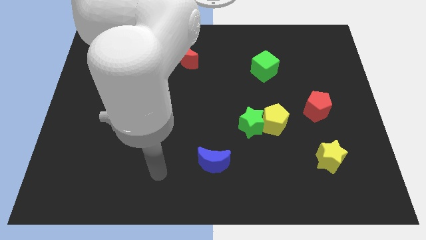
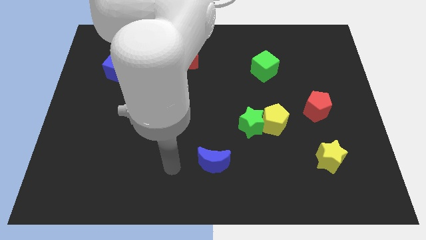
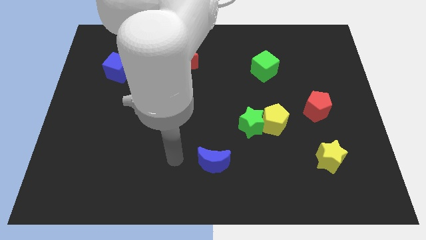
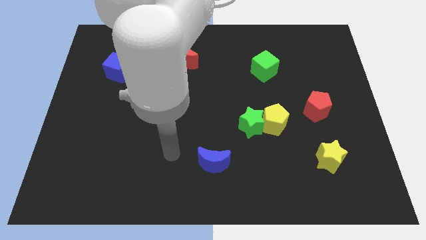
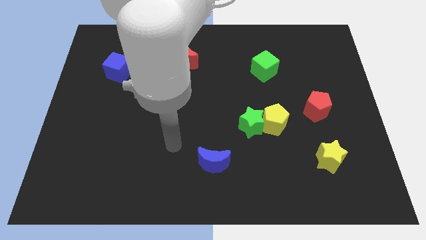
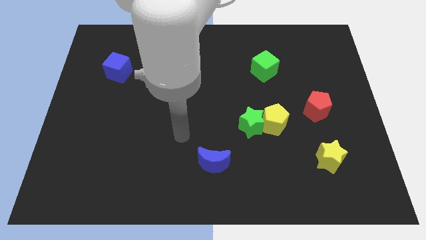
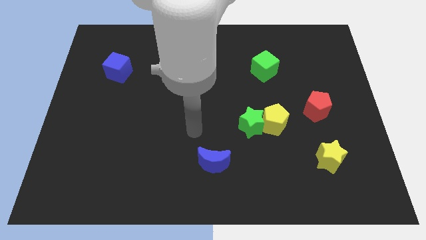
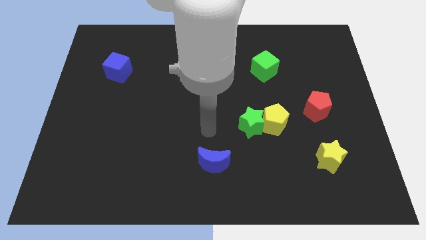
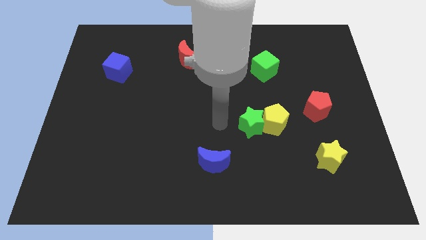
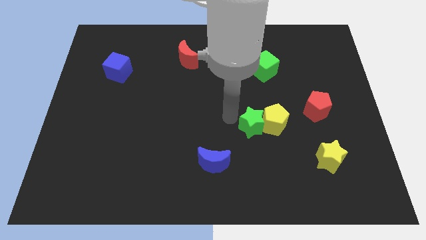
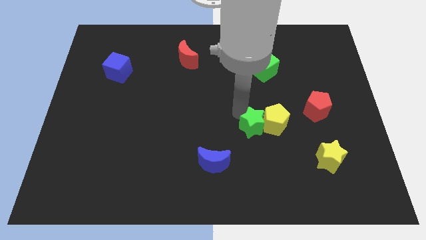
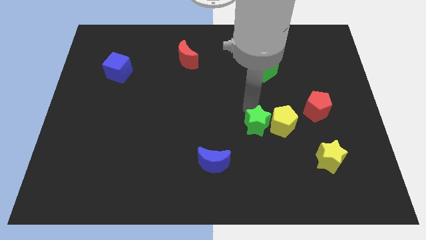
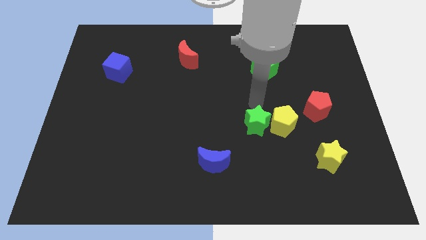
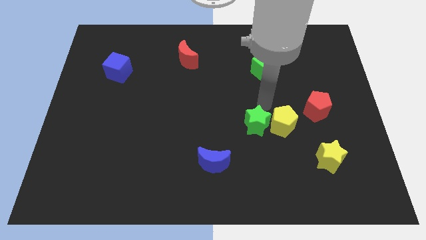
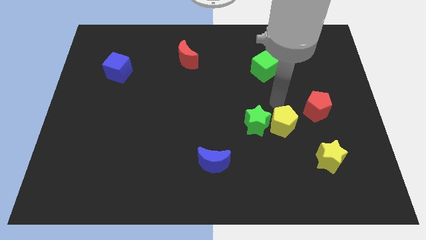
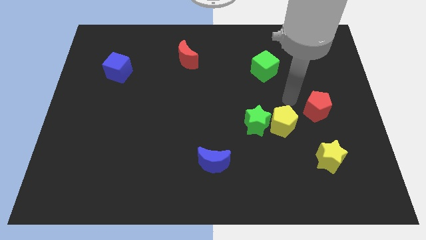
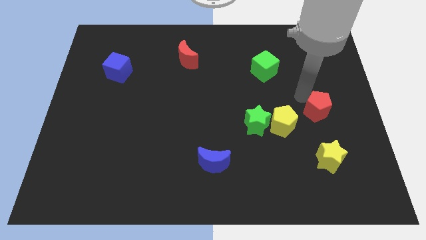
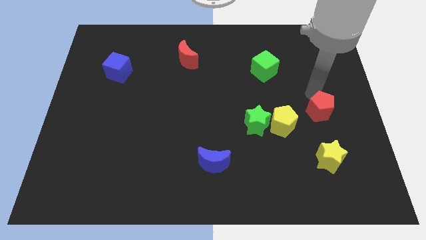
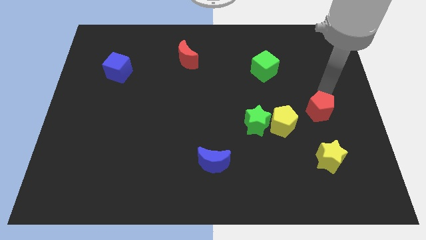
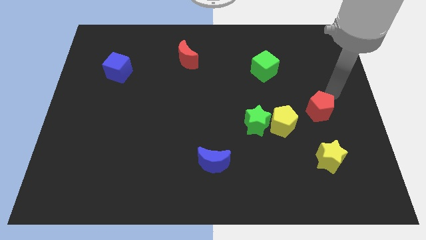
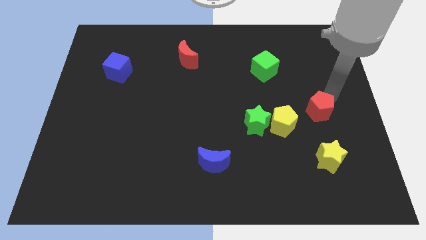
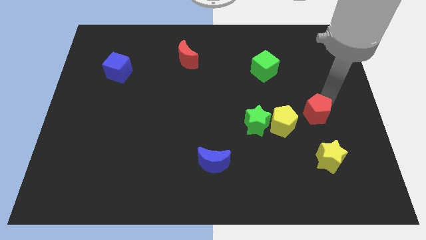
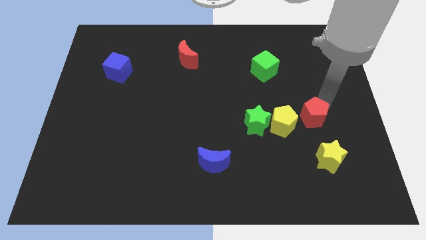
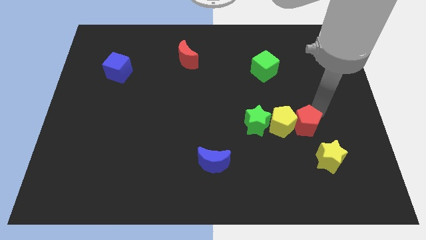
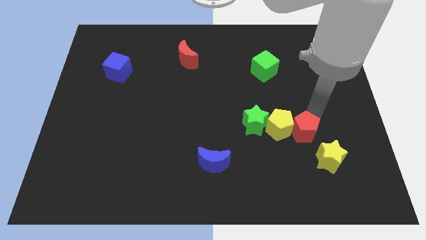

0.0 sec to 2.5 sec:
move the red pentagon a little bit downwards and to the left diagonally

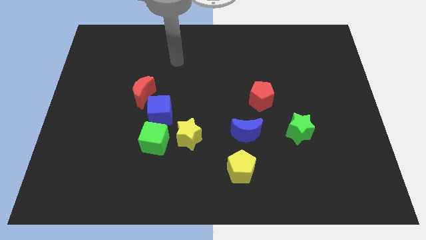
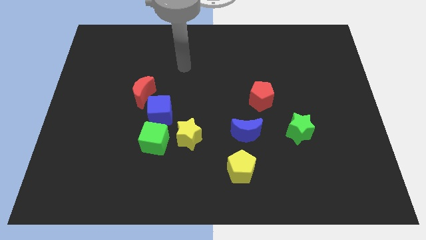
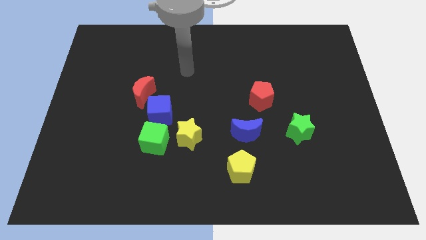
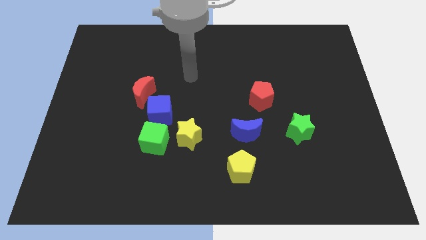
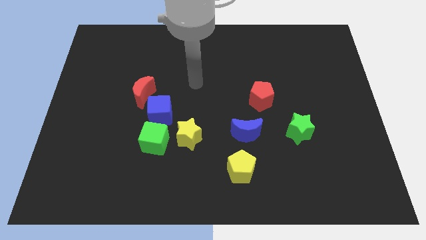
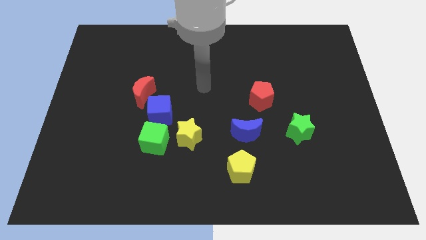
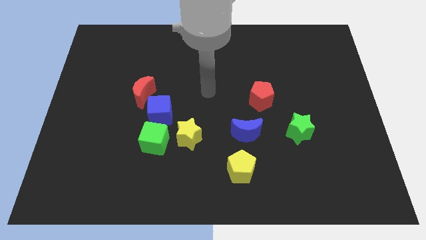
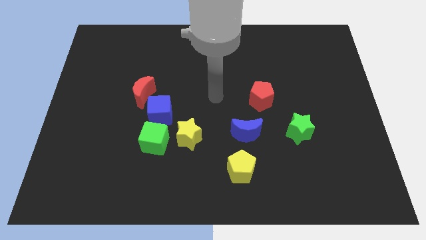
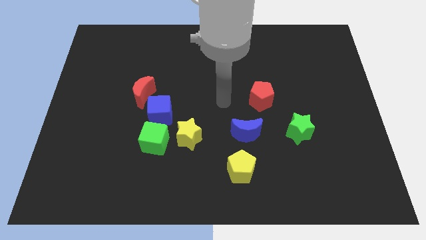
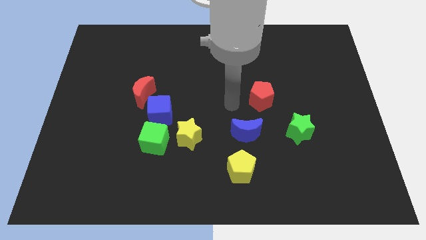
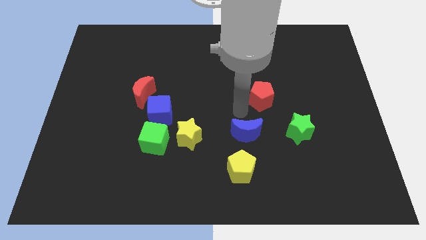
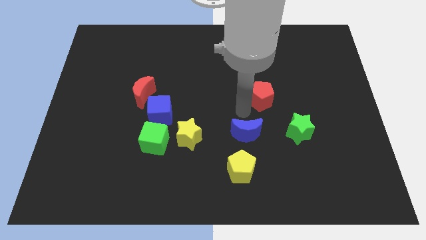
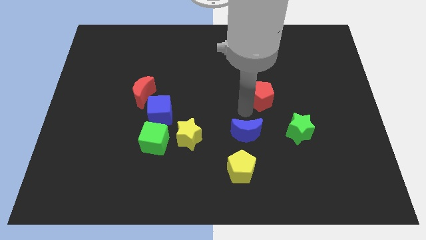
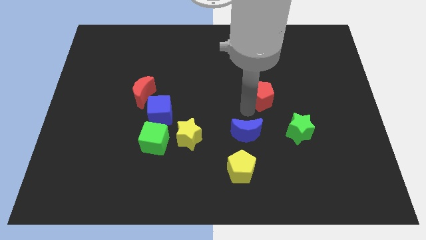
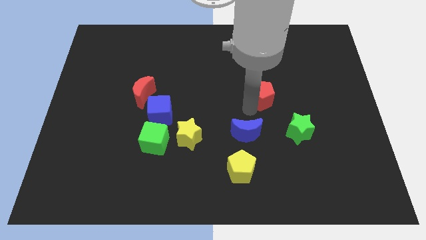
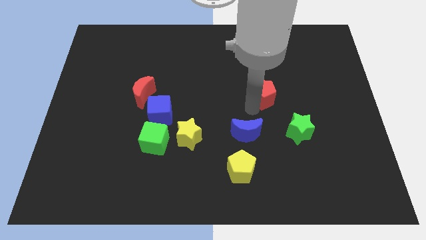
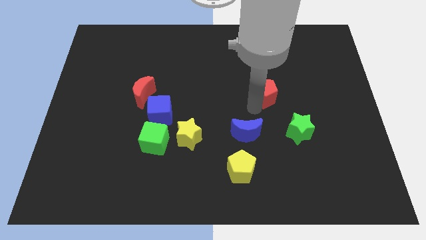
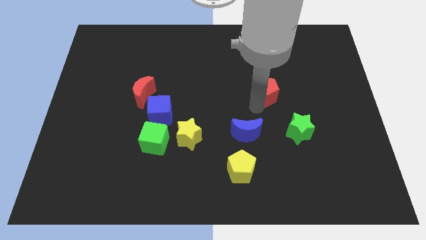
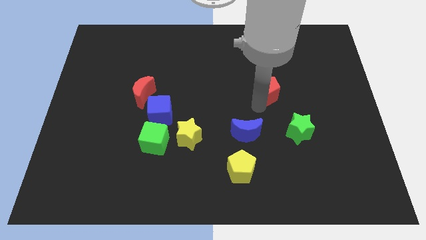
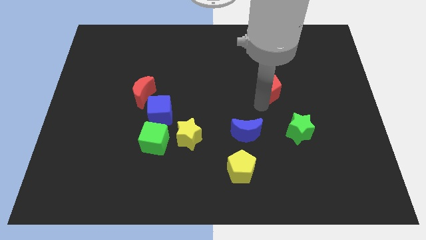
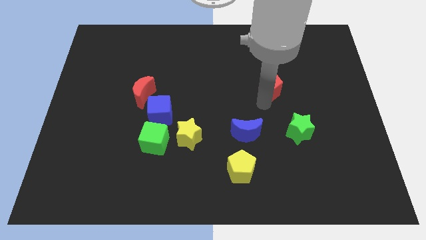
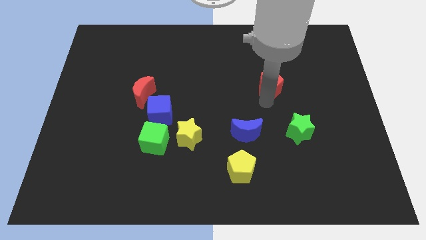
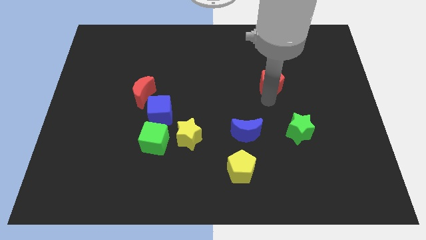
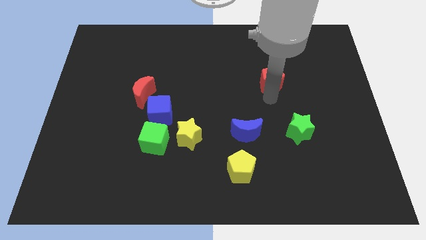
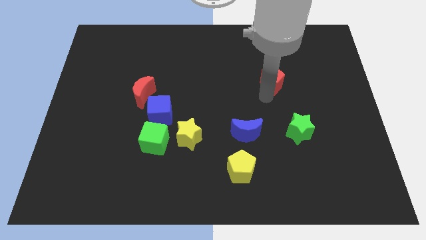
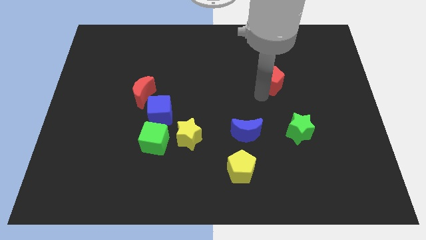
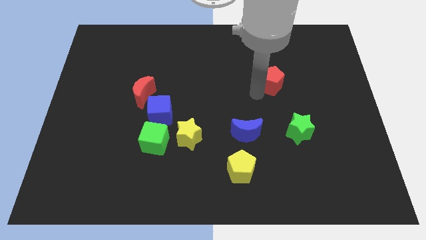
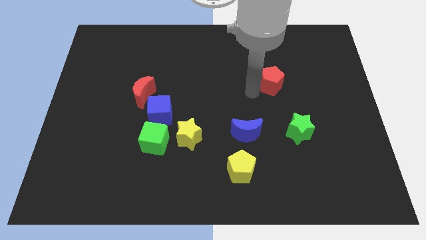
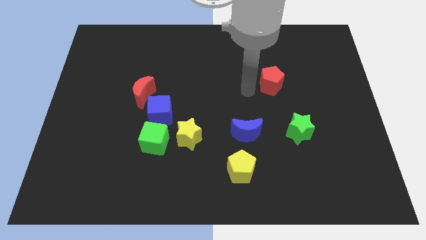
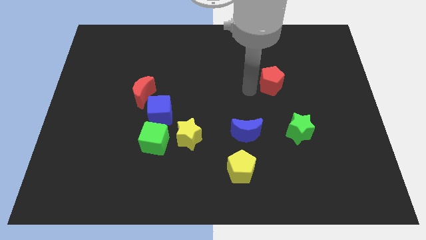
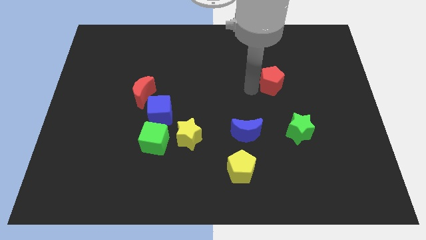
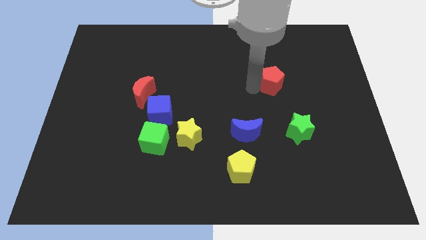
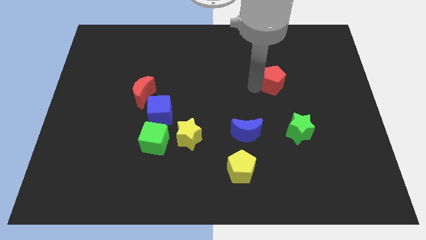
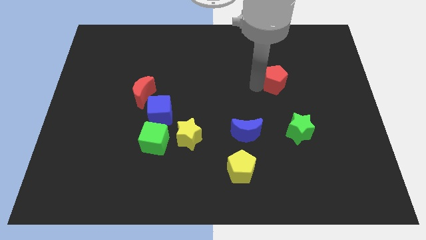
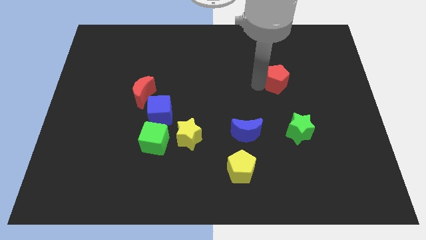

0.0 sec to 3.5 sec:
slightly slide the red pentagon diagonally up and right

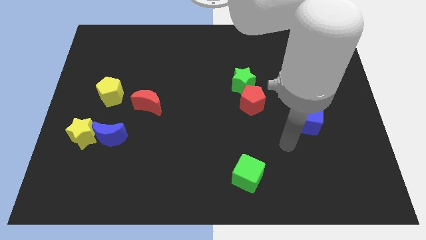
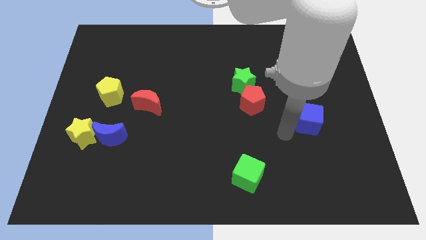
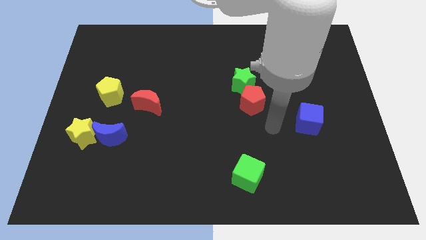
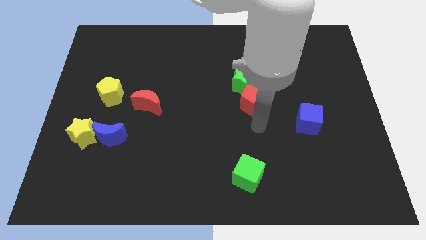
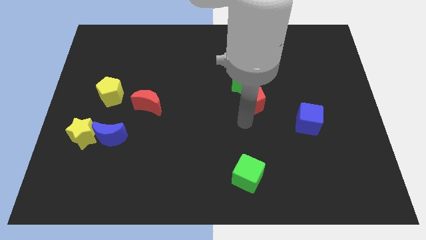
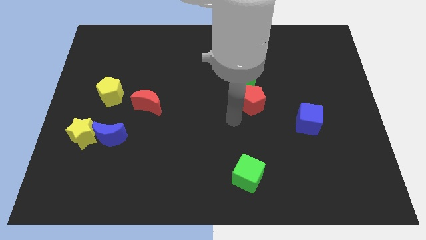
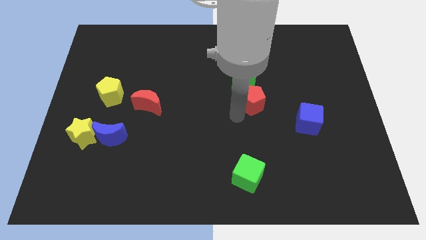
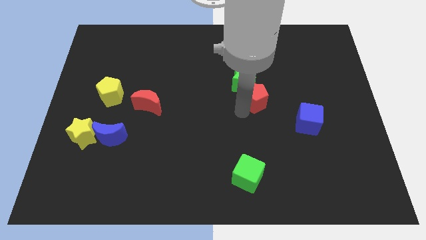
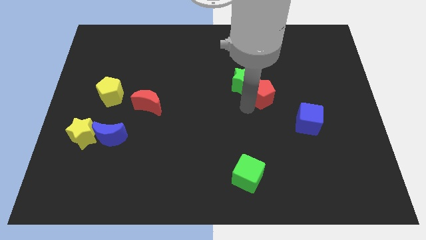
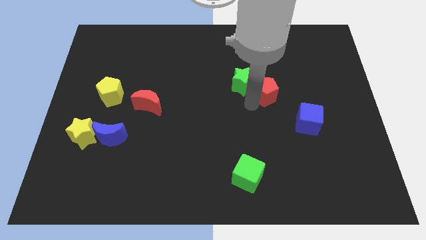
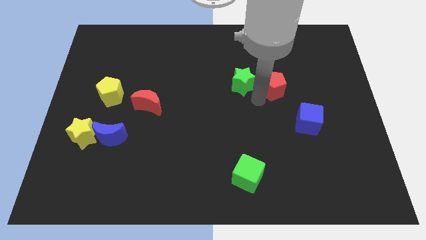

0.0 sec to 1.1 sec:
slightly move the red pentagon upwards and to the right

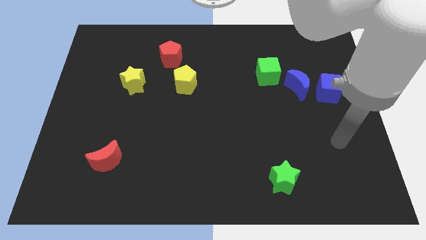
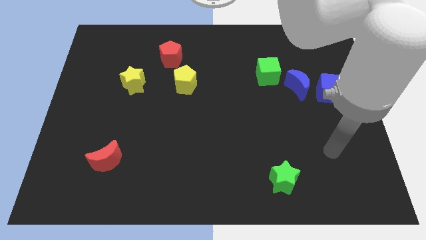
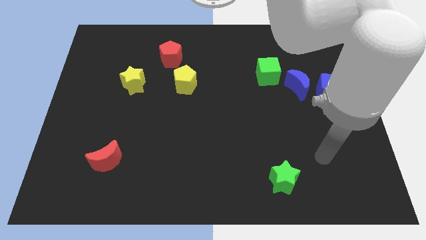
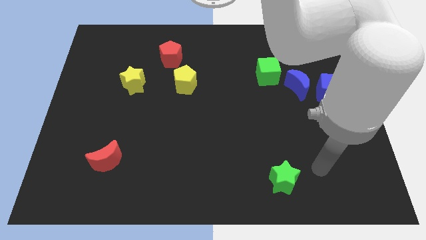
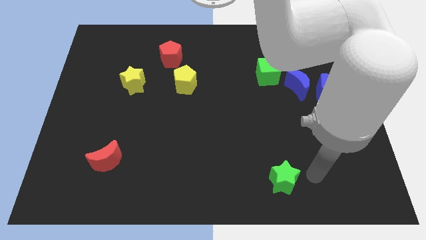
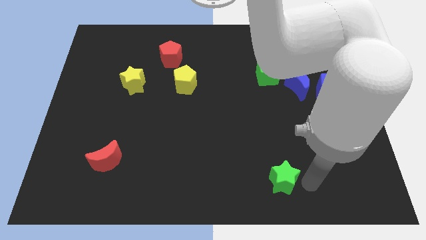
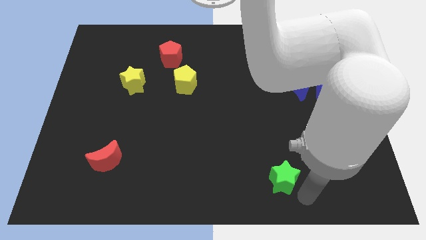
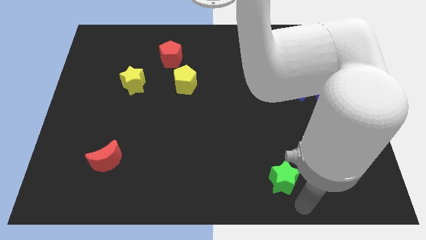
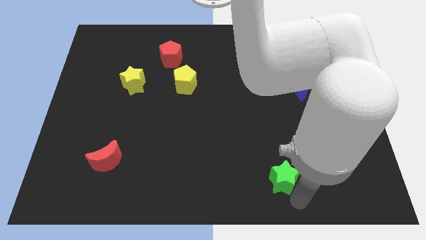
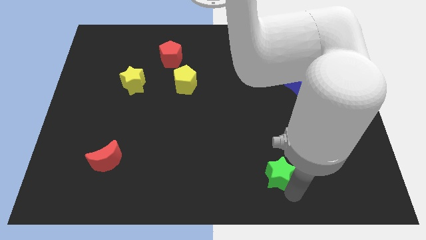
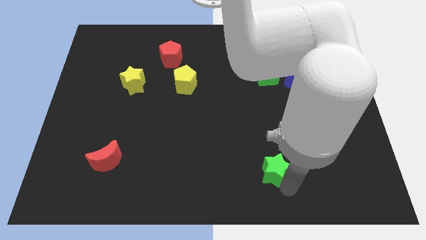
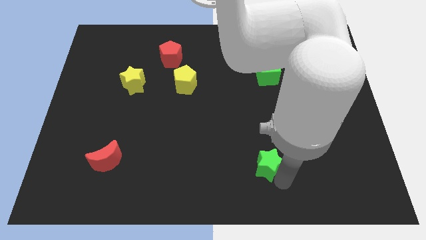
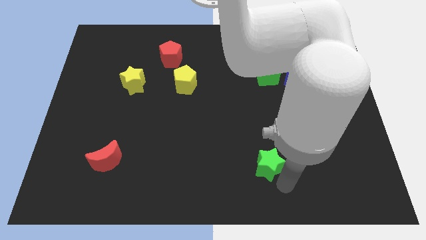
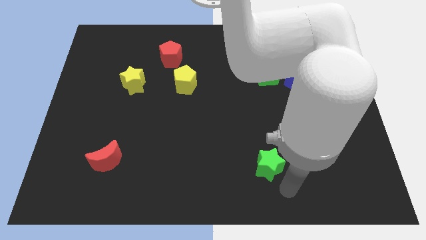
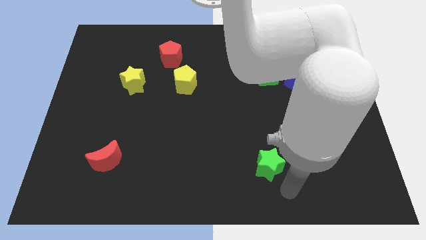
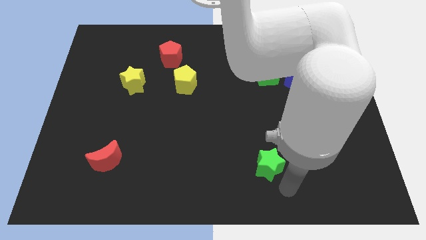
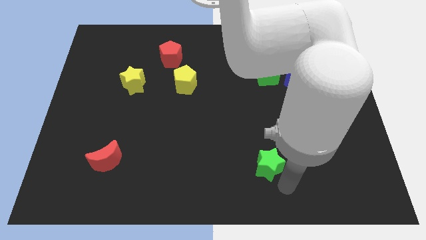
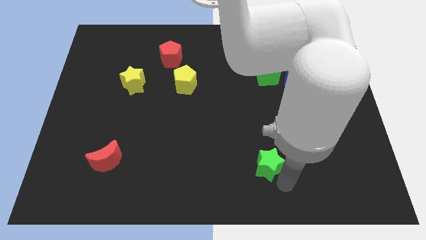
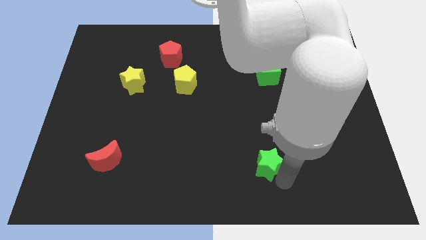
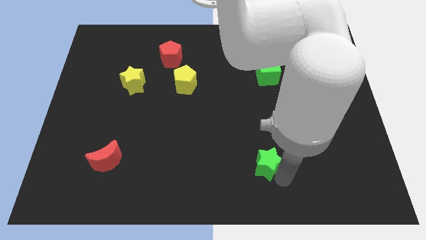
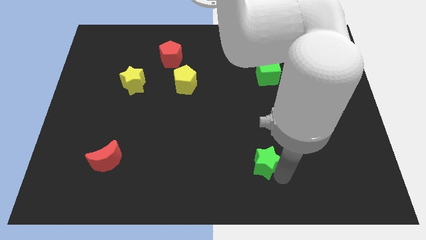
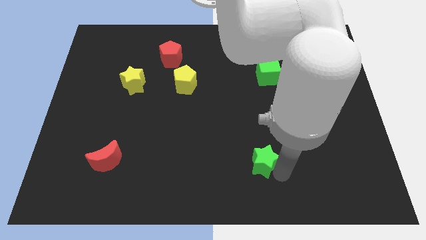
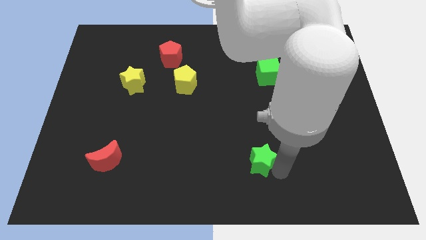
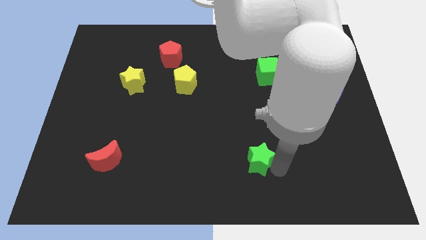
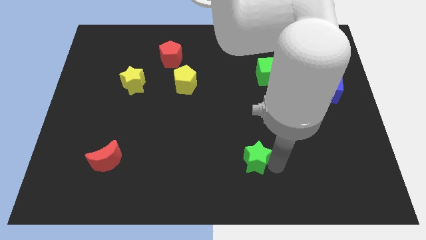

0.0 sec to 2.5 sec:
slightly move the green star up and to the left
